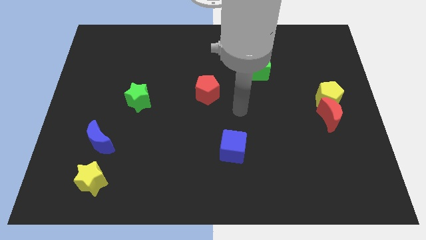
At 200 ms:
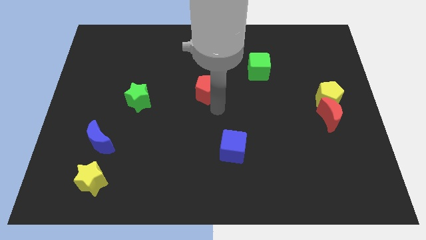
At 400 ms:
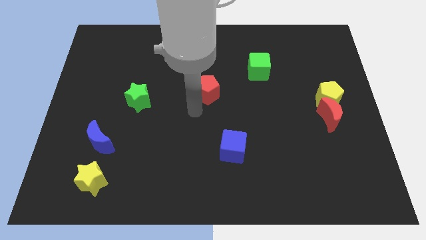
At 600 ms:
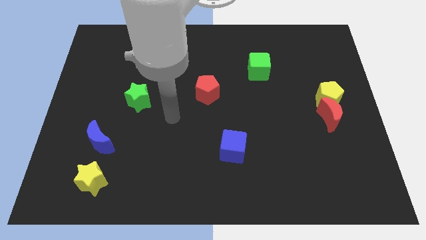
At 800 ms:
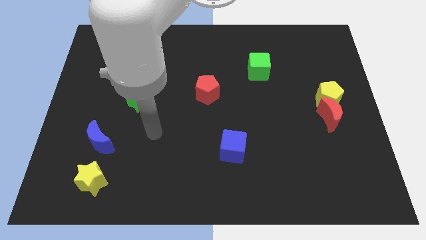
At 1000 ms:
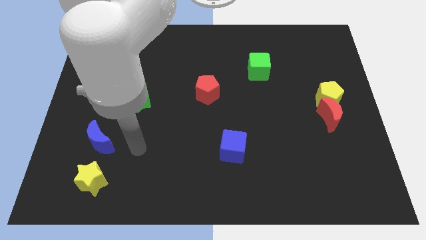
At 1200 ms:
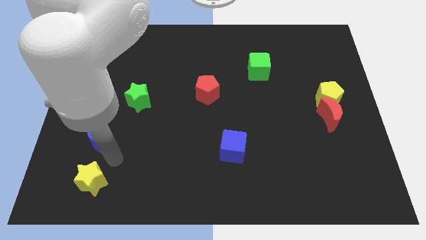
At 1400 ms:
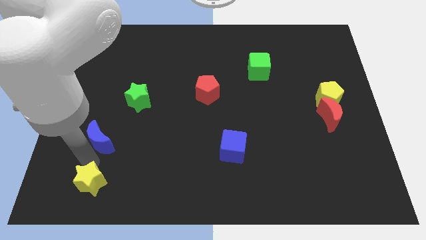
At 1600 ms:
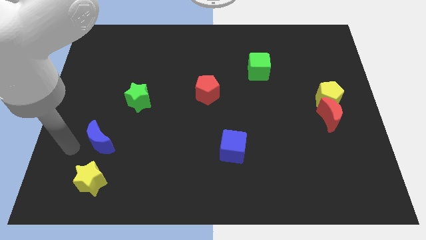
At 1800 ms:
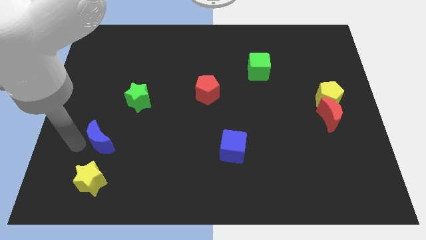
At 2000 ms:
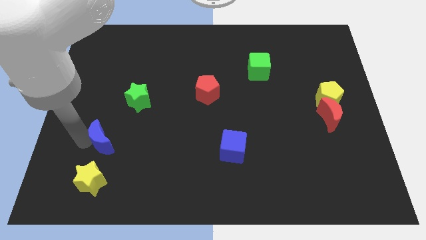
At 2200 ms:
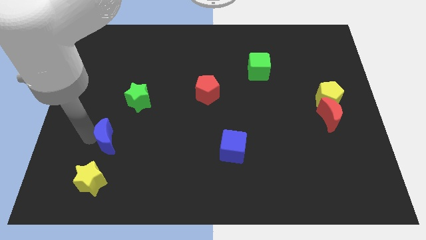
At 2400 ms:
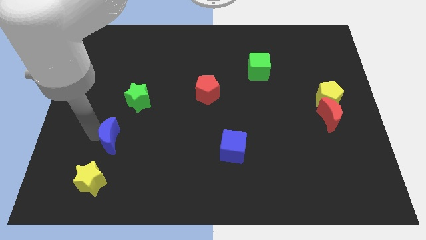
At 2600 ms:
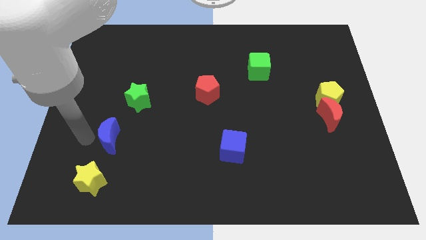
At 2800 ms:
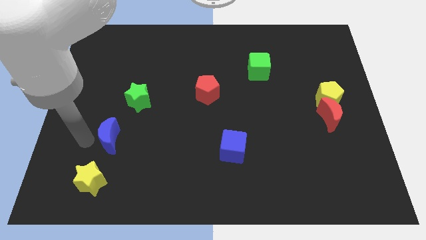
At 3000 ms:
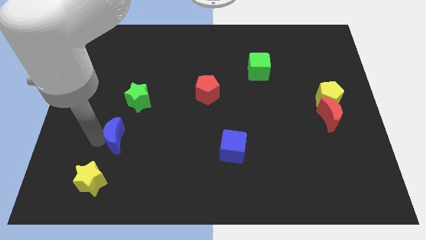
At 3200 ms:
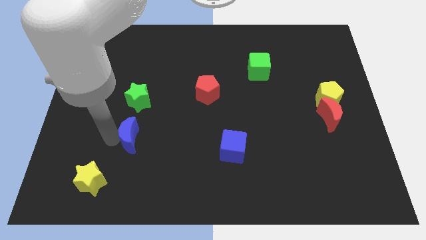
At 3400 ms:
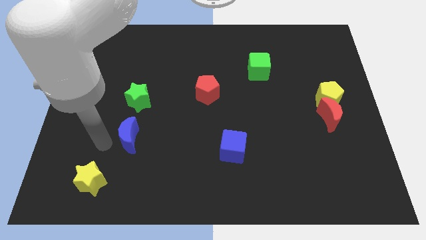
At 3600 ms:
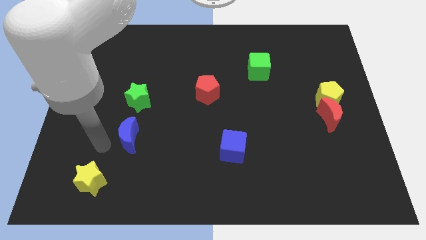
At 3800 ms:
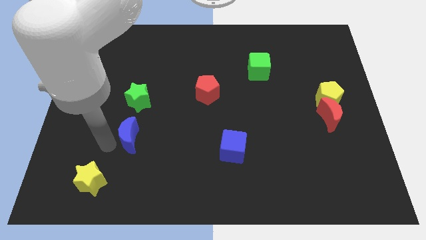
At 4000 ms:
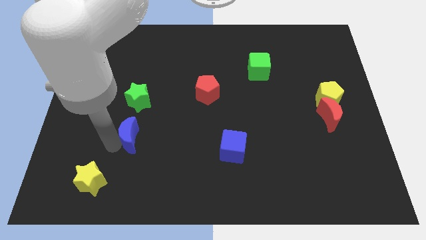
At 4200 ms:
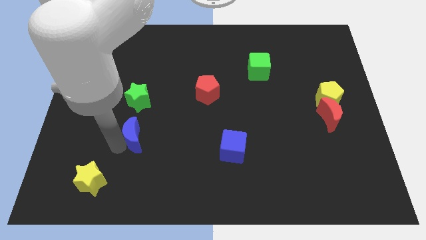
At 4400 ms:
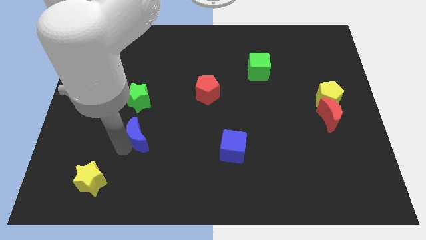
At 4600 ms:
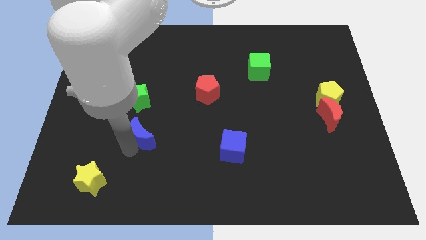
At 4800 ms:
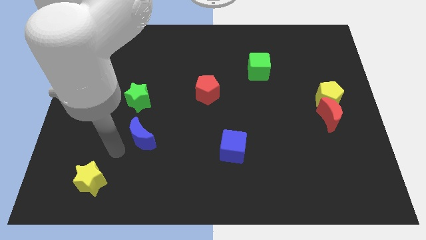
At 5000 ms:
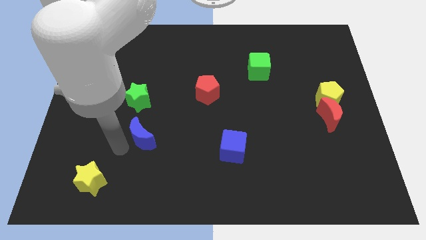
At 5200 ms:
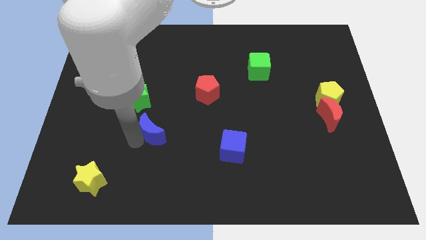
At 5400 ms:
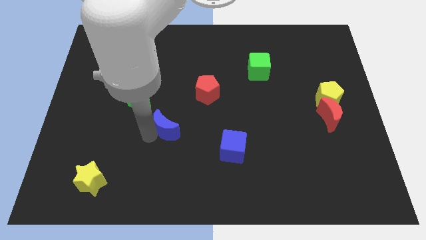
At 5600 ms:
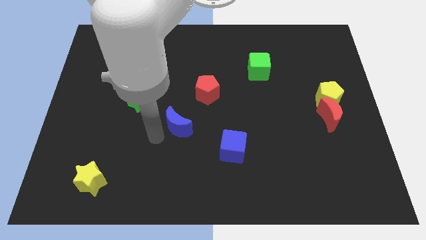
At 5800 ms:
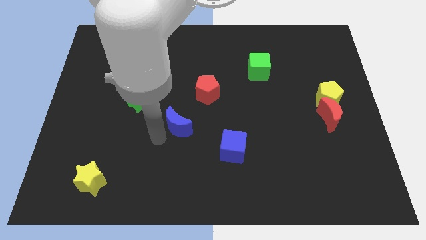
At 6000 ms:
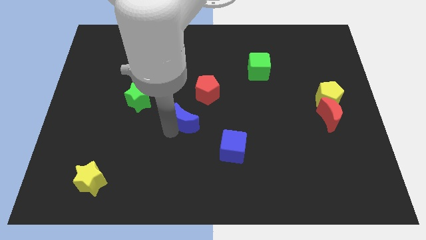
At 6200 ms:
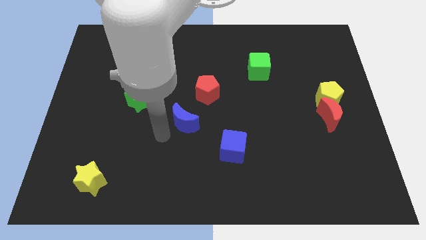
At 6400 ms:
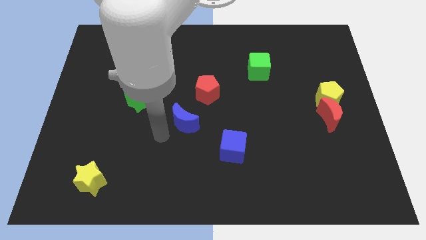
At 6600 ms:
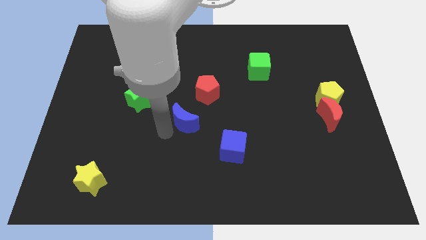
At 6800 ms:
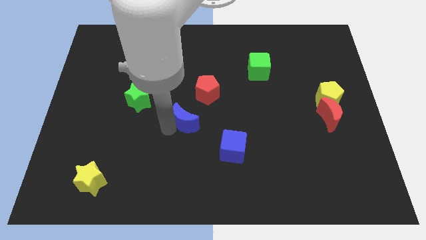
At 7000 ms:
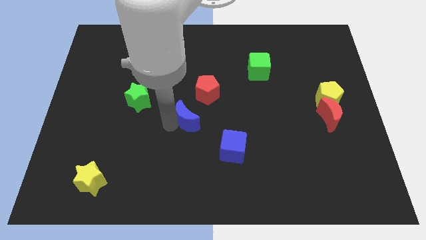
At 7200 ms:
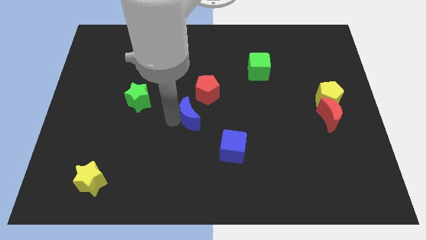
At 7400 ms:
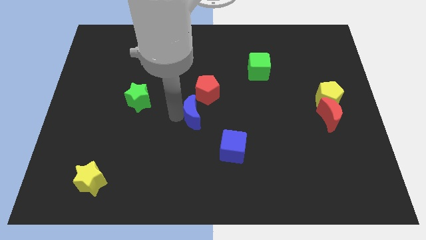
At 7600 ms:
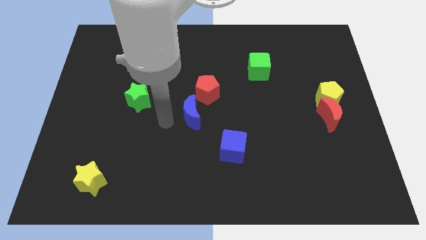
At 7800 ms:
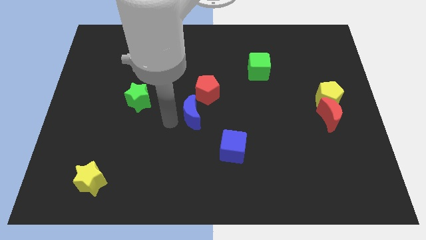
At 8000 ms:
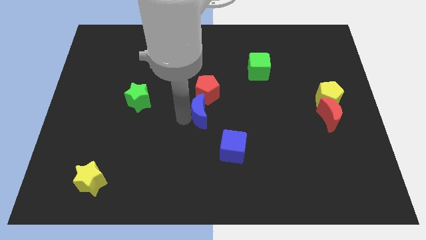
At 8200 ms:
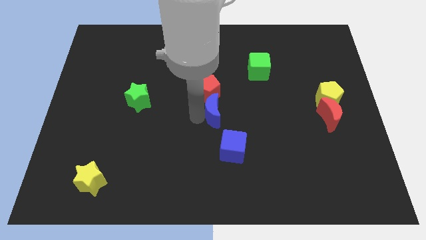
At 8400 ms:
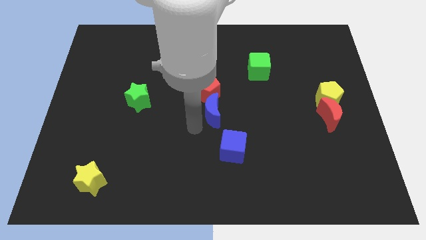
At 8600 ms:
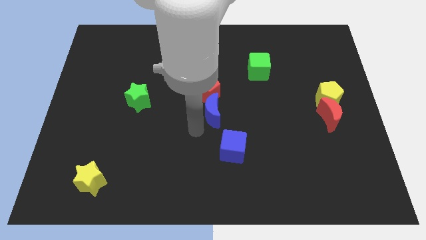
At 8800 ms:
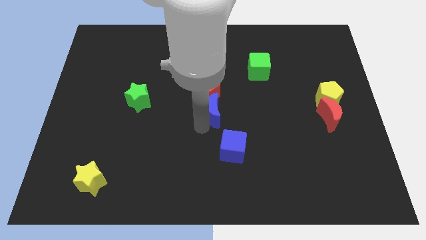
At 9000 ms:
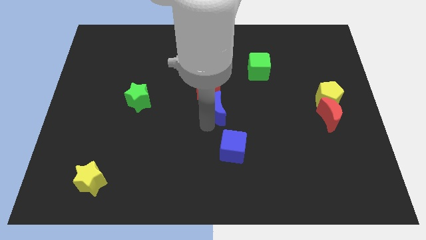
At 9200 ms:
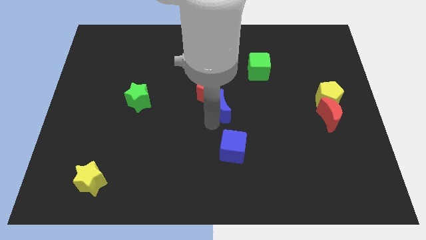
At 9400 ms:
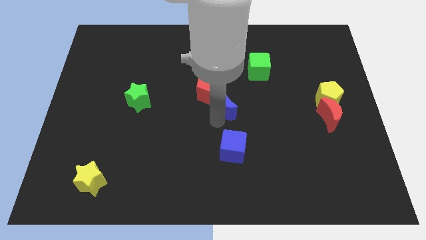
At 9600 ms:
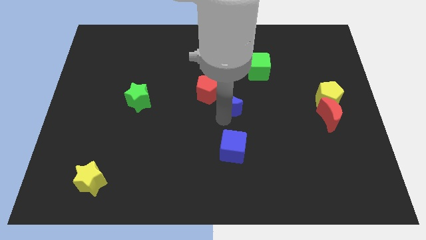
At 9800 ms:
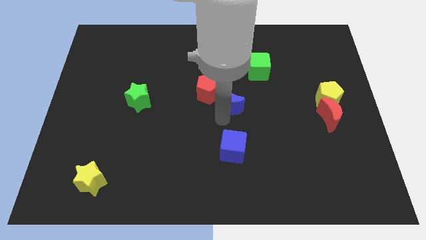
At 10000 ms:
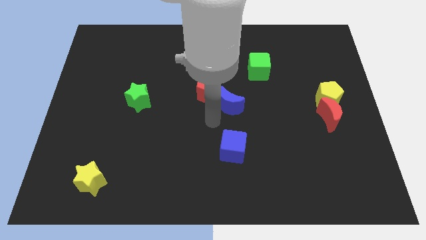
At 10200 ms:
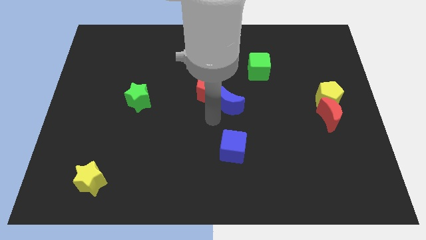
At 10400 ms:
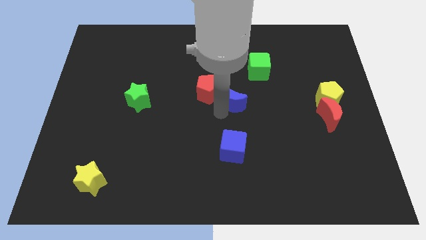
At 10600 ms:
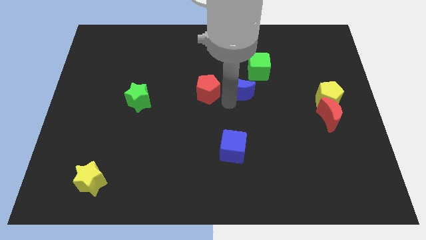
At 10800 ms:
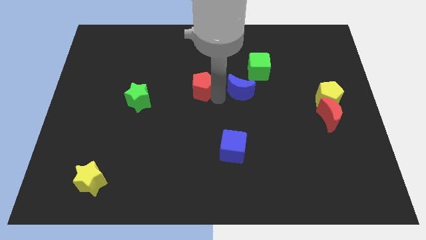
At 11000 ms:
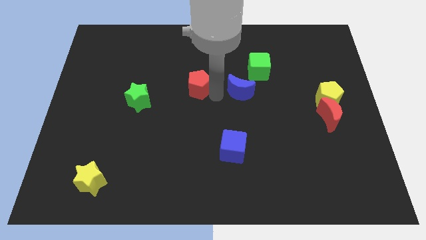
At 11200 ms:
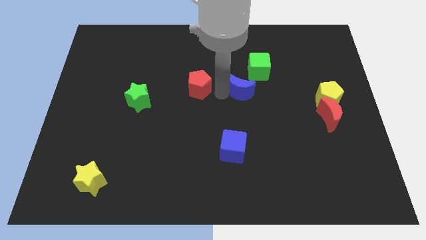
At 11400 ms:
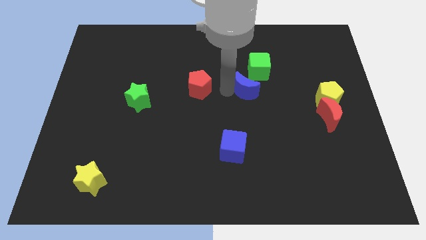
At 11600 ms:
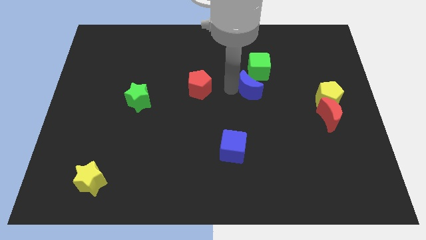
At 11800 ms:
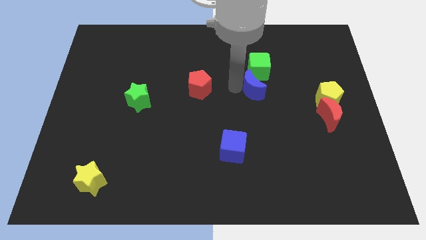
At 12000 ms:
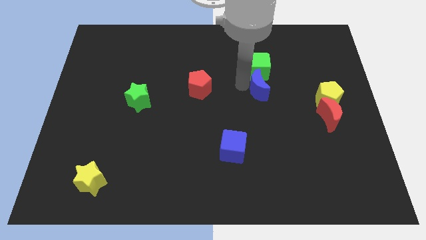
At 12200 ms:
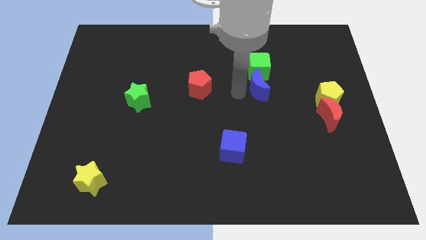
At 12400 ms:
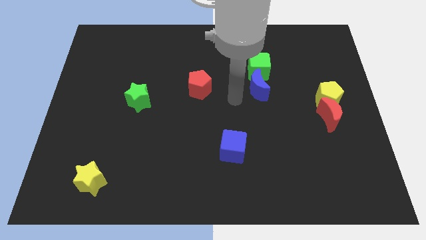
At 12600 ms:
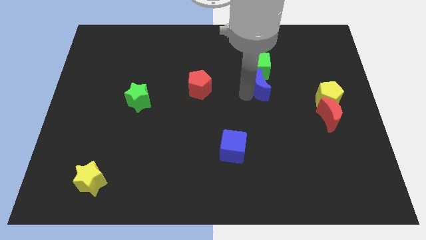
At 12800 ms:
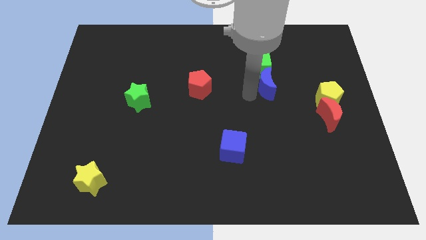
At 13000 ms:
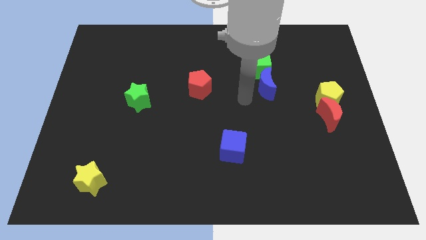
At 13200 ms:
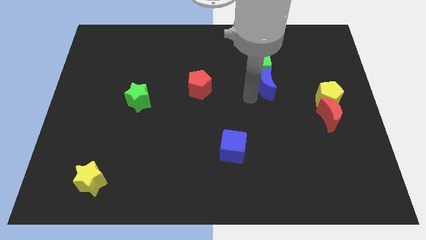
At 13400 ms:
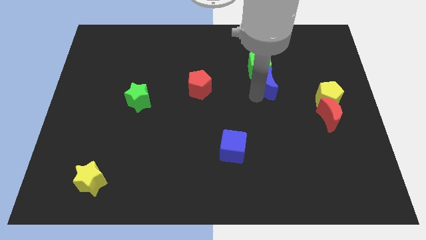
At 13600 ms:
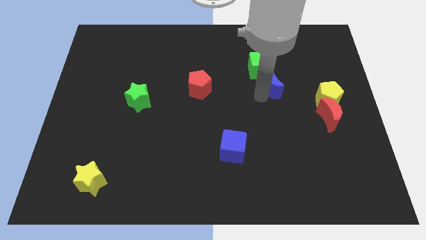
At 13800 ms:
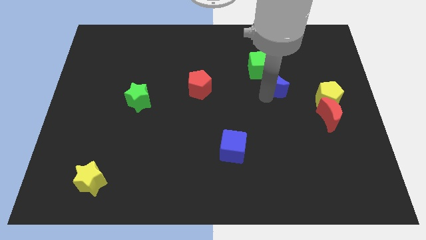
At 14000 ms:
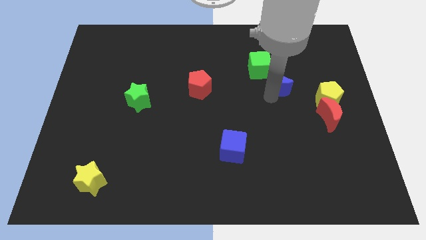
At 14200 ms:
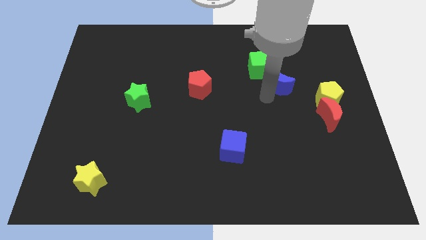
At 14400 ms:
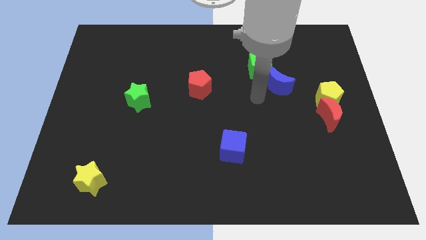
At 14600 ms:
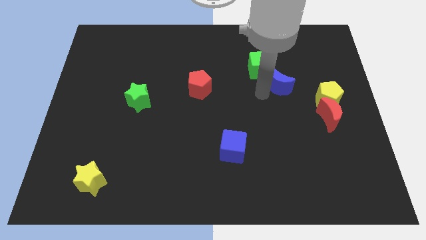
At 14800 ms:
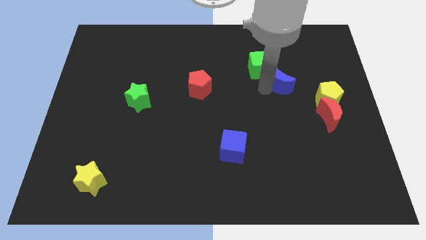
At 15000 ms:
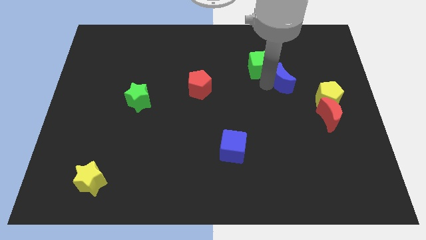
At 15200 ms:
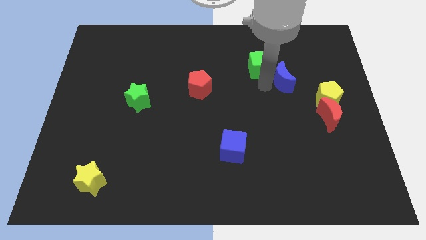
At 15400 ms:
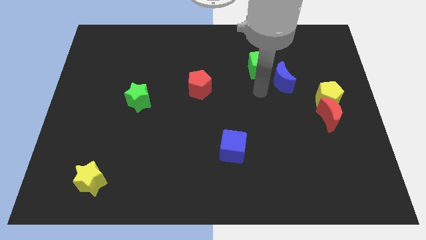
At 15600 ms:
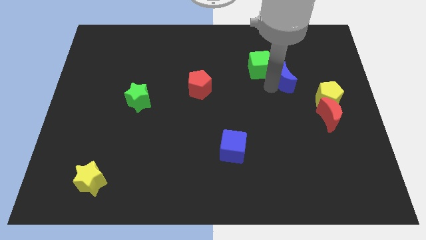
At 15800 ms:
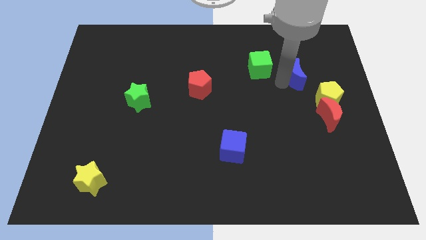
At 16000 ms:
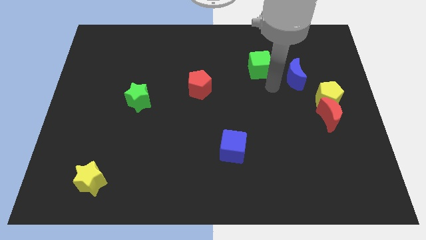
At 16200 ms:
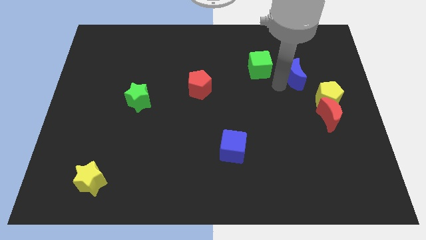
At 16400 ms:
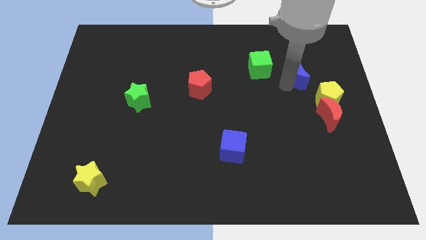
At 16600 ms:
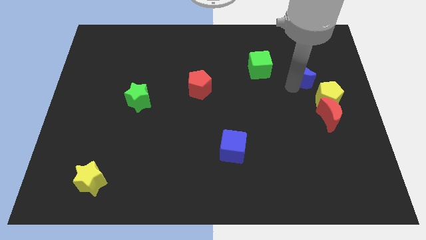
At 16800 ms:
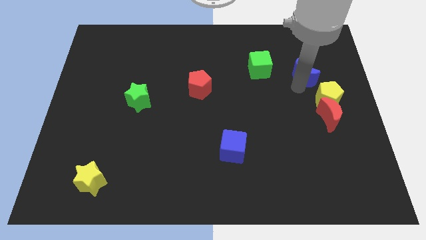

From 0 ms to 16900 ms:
move the blue moon to the top side of the yellow pentagon
